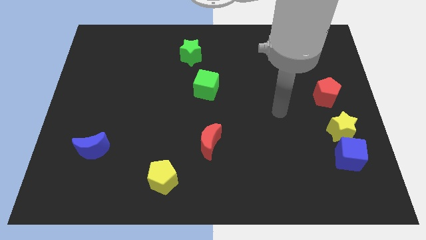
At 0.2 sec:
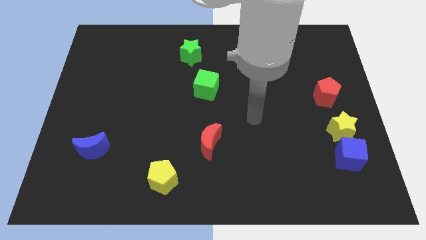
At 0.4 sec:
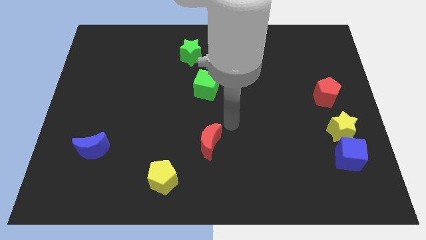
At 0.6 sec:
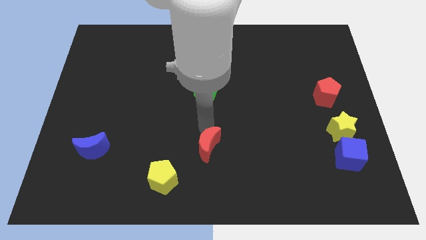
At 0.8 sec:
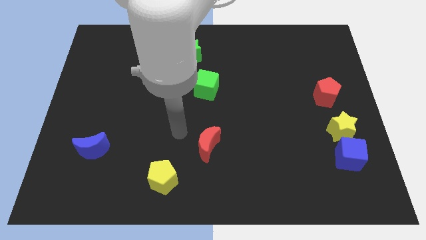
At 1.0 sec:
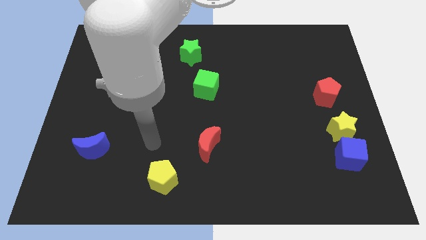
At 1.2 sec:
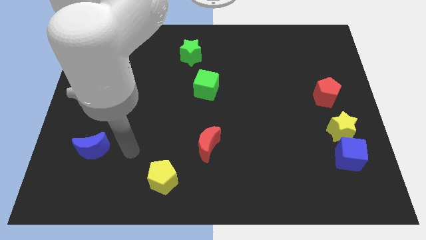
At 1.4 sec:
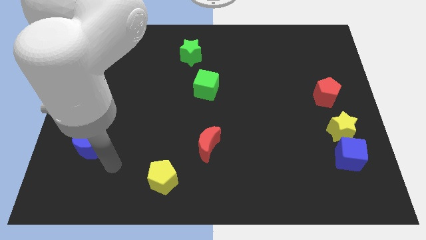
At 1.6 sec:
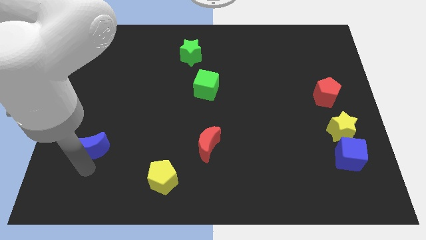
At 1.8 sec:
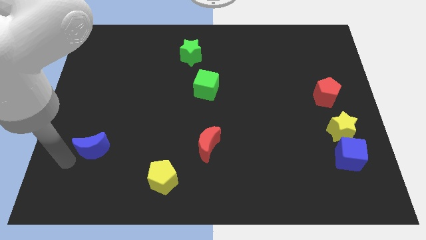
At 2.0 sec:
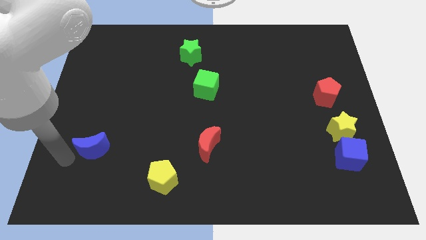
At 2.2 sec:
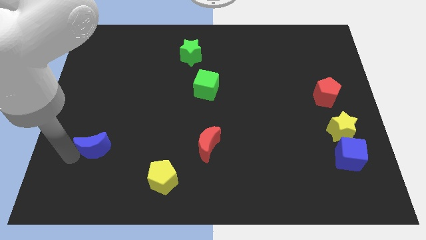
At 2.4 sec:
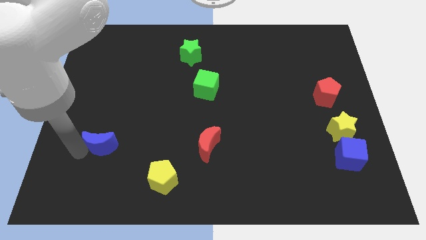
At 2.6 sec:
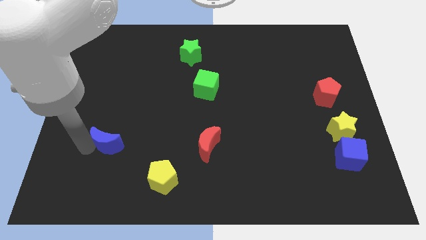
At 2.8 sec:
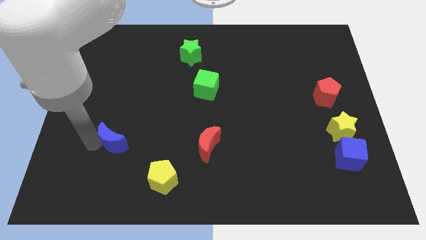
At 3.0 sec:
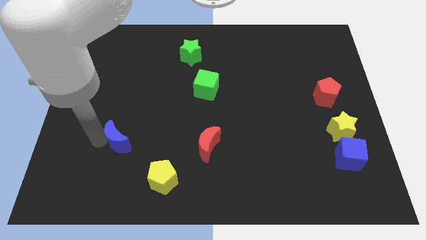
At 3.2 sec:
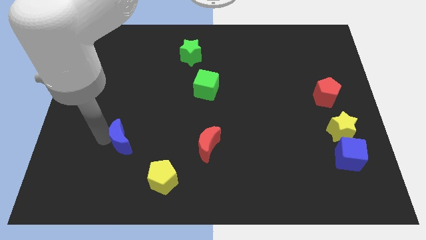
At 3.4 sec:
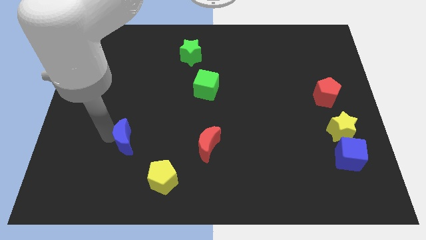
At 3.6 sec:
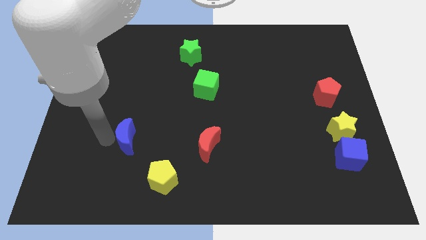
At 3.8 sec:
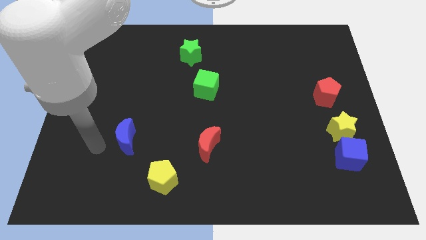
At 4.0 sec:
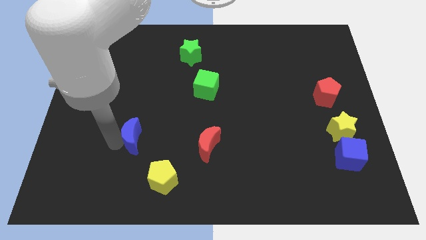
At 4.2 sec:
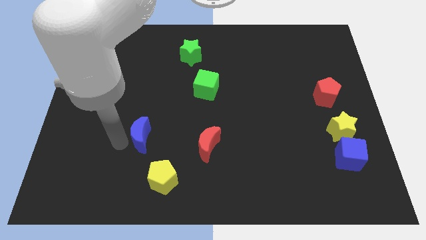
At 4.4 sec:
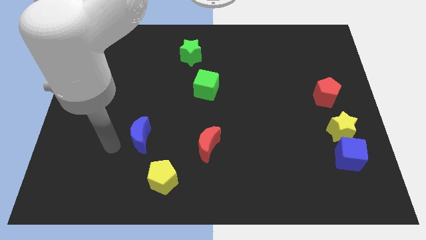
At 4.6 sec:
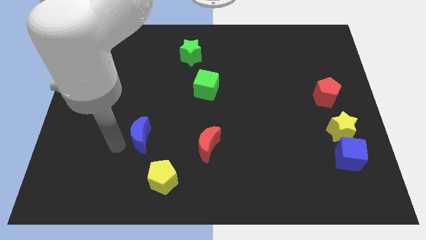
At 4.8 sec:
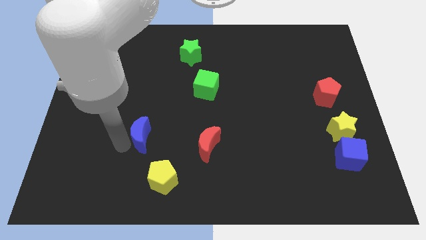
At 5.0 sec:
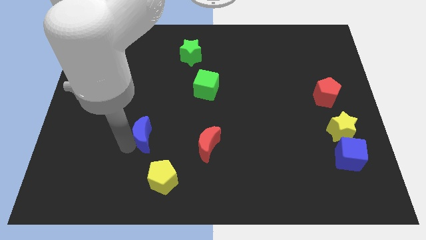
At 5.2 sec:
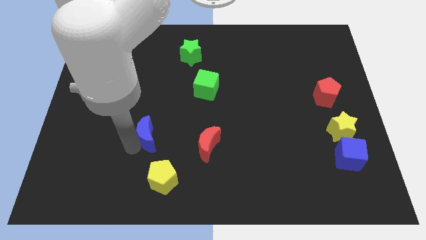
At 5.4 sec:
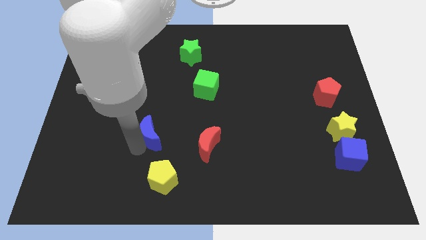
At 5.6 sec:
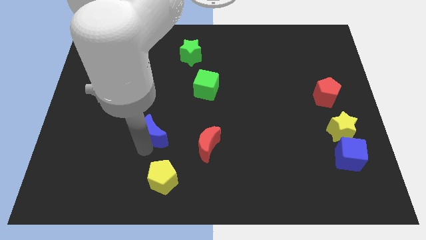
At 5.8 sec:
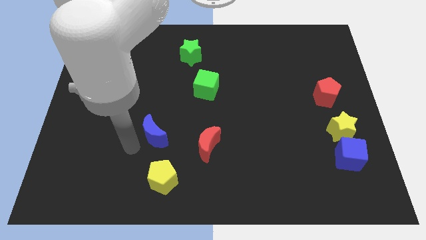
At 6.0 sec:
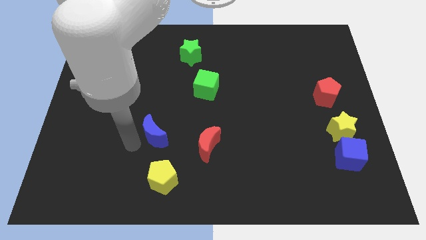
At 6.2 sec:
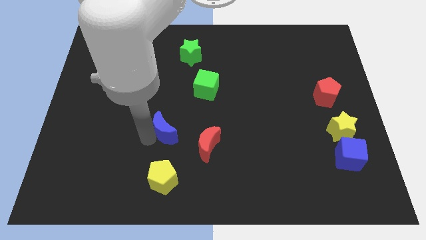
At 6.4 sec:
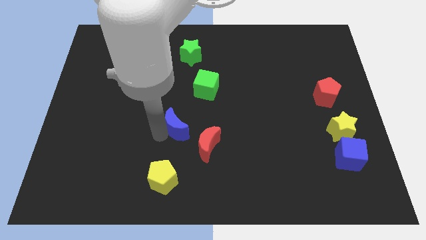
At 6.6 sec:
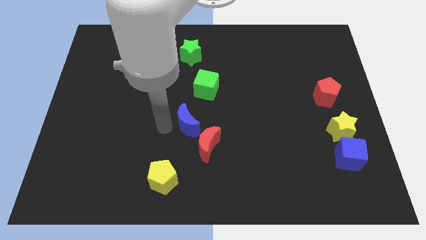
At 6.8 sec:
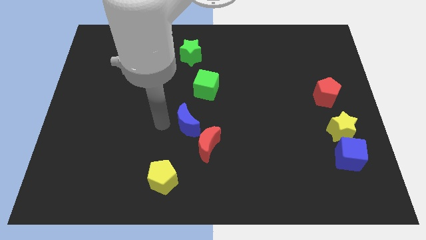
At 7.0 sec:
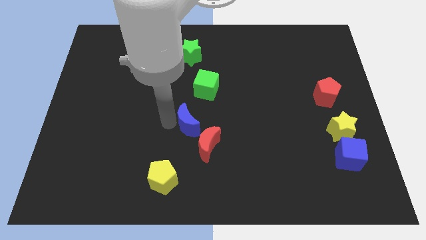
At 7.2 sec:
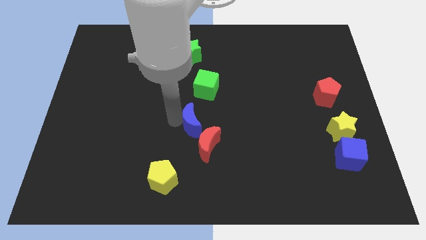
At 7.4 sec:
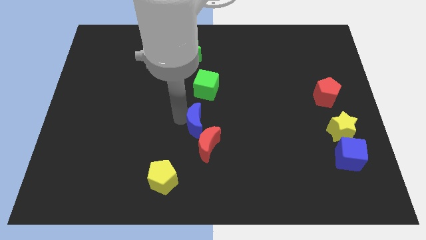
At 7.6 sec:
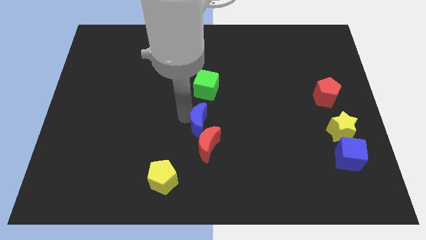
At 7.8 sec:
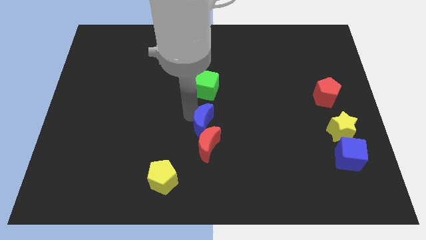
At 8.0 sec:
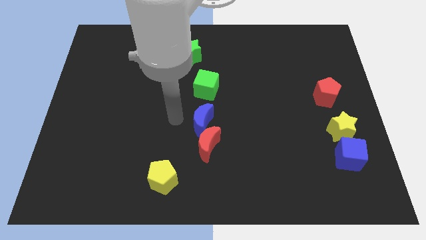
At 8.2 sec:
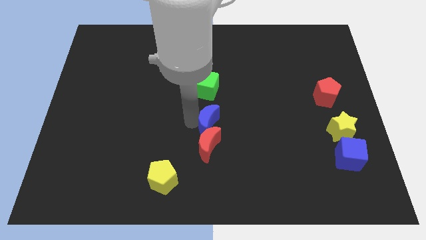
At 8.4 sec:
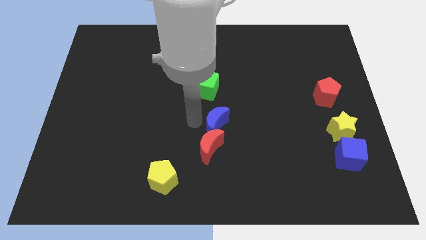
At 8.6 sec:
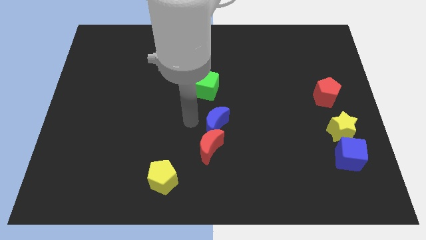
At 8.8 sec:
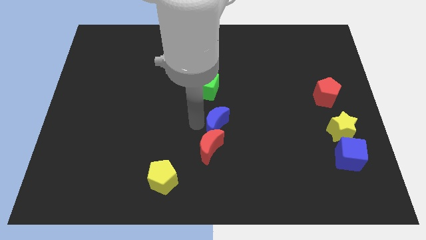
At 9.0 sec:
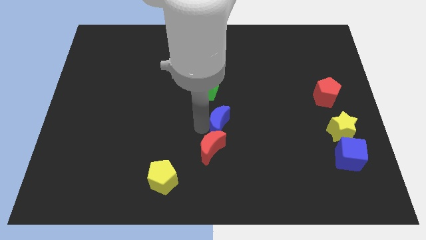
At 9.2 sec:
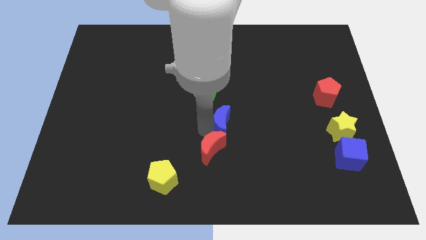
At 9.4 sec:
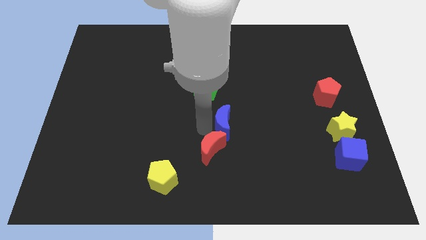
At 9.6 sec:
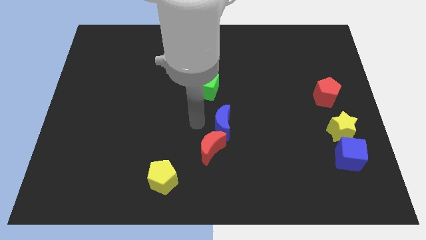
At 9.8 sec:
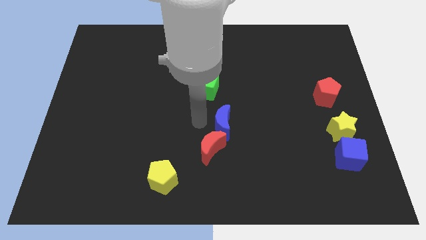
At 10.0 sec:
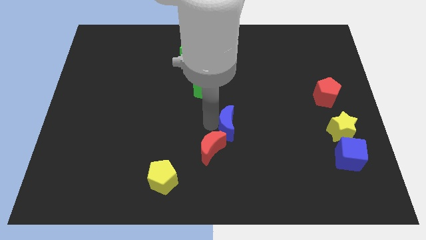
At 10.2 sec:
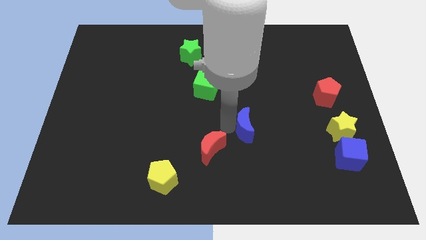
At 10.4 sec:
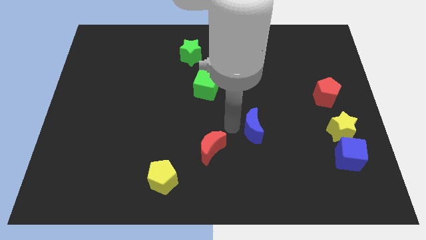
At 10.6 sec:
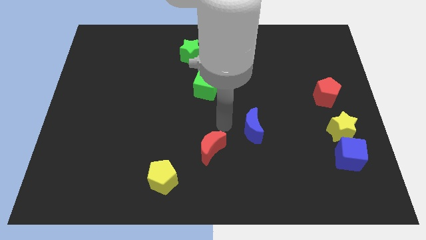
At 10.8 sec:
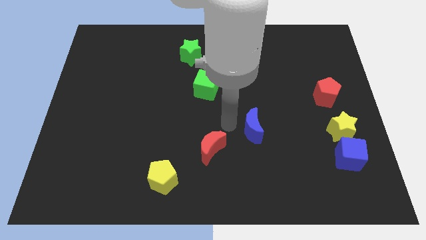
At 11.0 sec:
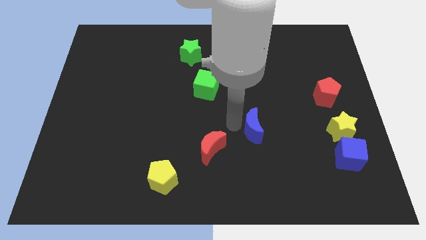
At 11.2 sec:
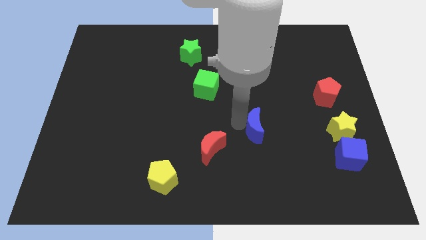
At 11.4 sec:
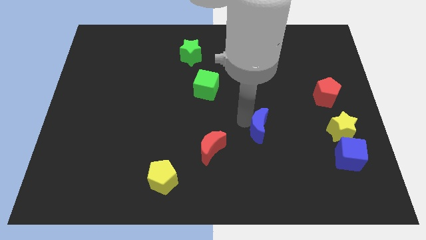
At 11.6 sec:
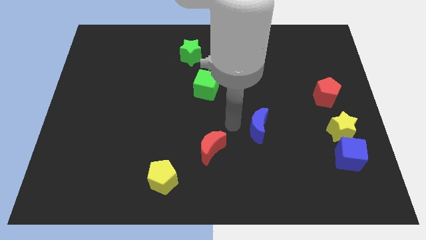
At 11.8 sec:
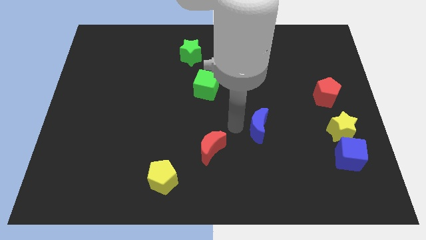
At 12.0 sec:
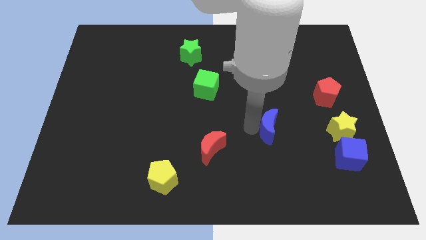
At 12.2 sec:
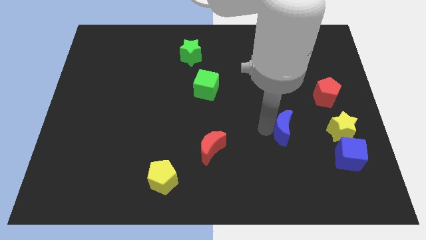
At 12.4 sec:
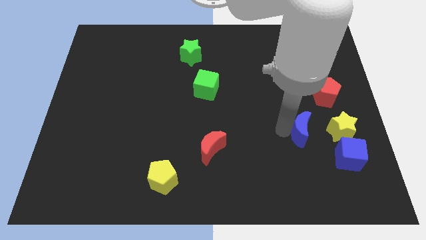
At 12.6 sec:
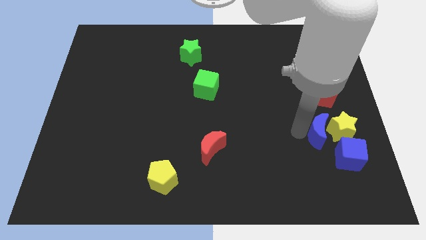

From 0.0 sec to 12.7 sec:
push the blue moon next to the yellow star

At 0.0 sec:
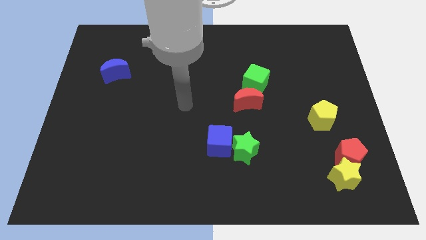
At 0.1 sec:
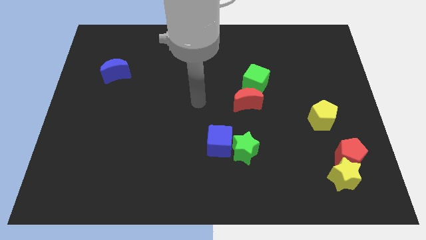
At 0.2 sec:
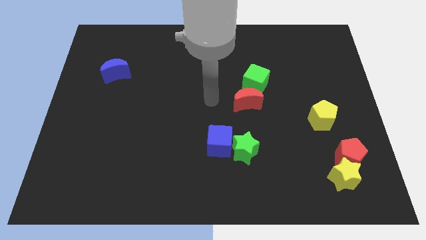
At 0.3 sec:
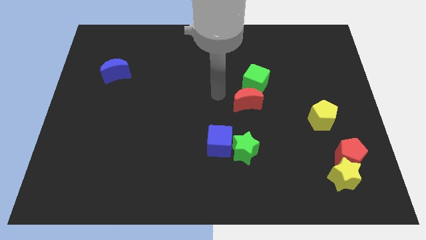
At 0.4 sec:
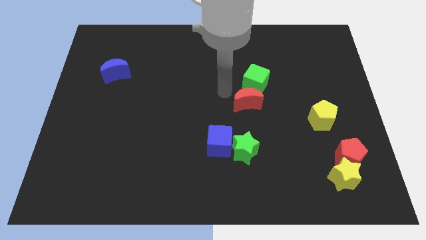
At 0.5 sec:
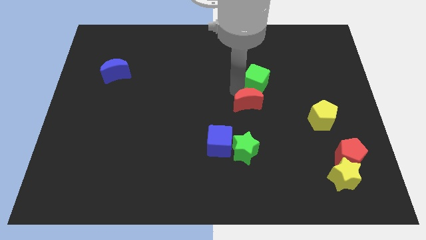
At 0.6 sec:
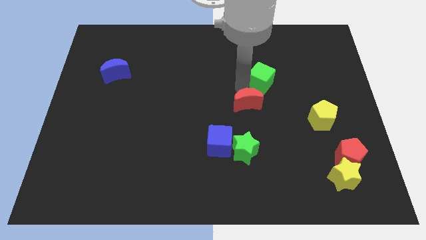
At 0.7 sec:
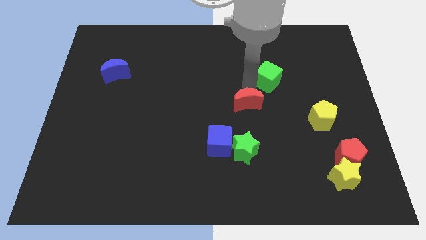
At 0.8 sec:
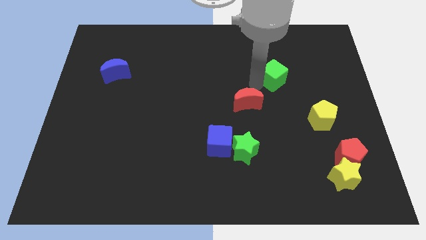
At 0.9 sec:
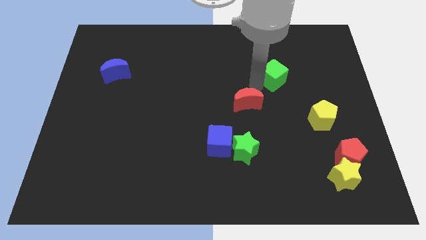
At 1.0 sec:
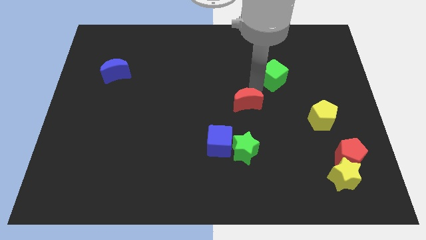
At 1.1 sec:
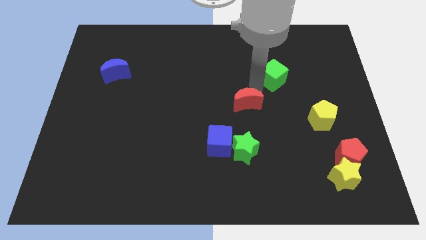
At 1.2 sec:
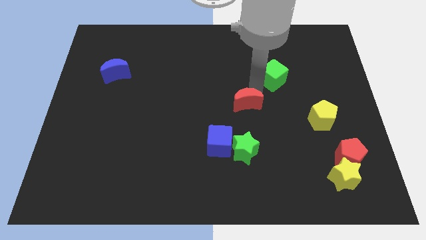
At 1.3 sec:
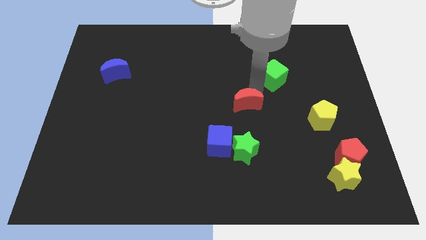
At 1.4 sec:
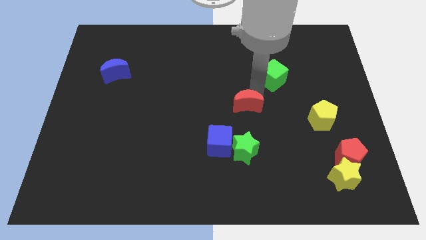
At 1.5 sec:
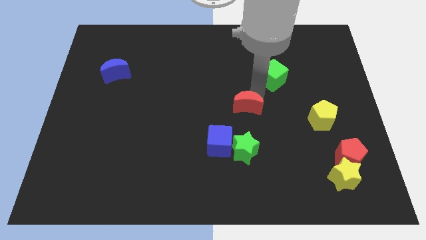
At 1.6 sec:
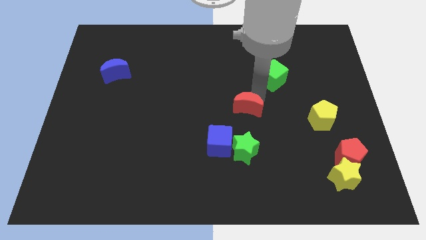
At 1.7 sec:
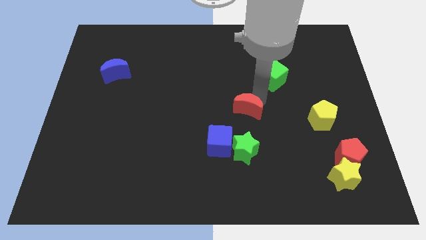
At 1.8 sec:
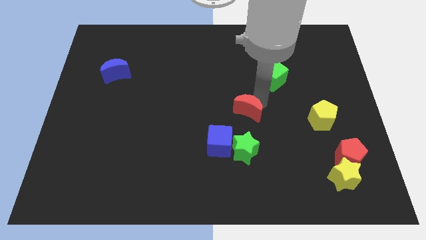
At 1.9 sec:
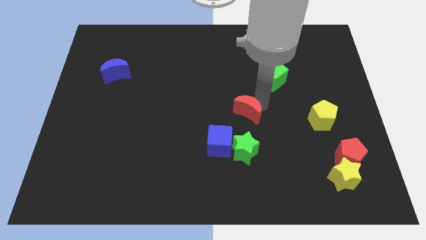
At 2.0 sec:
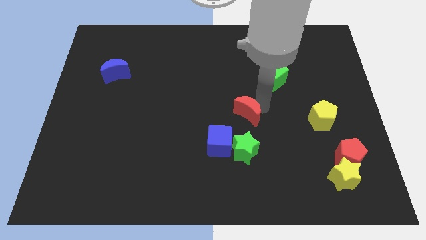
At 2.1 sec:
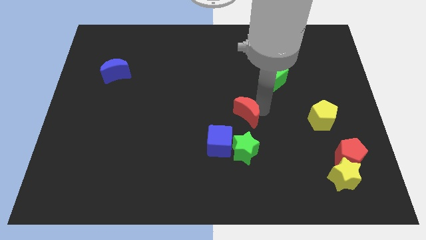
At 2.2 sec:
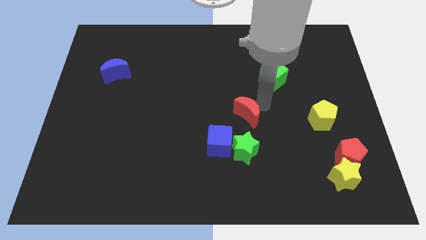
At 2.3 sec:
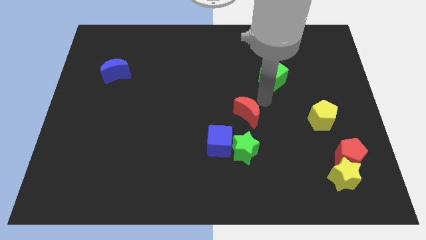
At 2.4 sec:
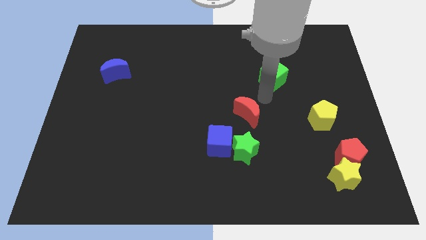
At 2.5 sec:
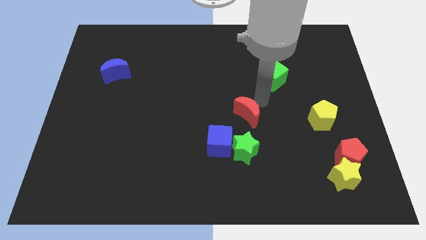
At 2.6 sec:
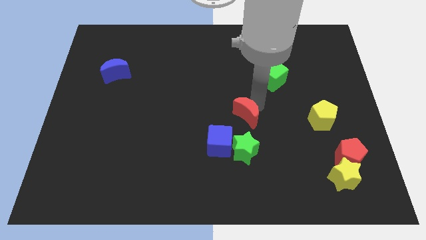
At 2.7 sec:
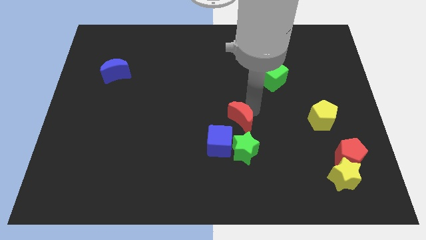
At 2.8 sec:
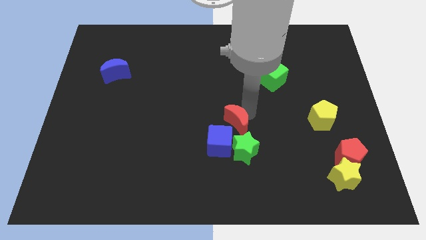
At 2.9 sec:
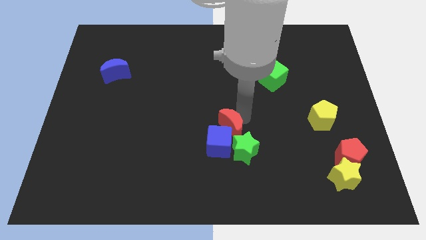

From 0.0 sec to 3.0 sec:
put the red moon close to the blue cube
